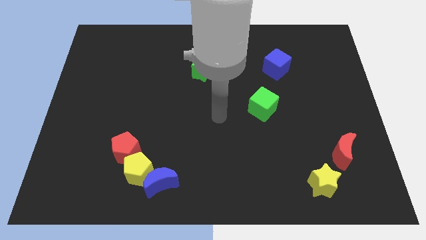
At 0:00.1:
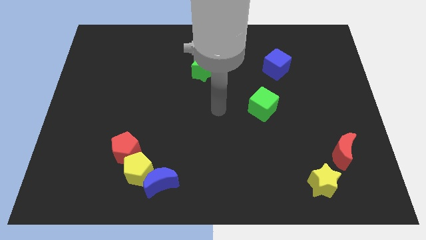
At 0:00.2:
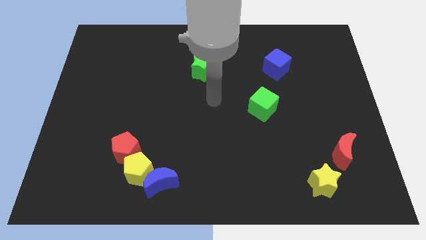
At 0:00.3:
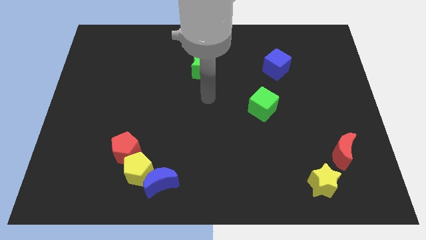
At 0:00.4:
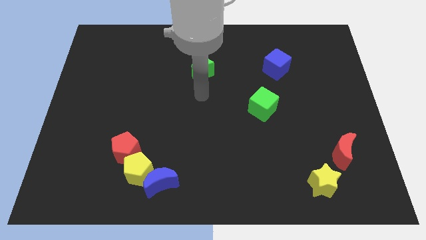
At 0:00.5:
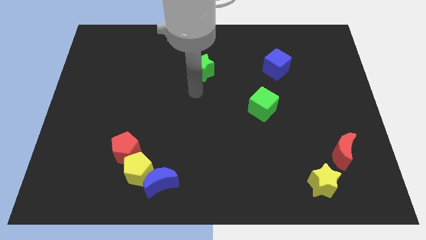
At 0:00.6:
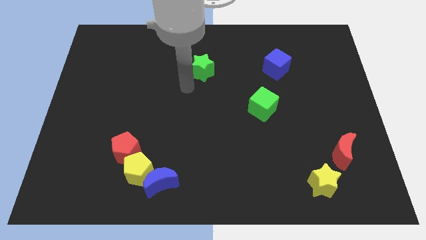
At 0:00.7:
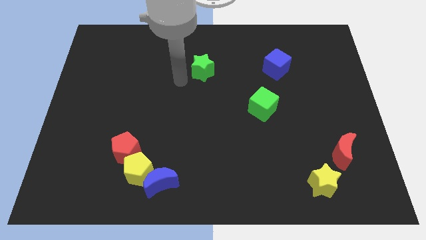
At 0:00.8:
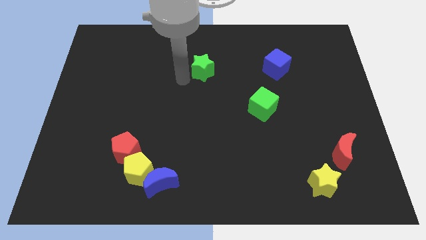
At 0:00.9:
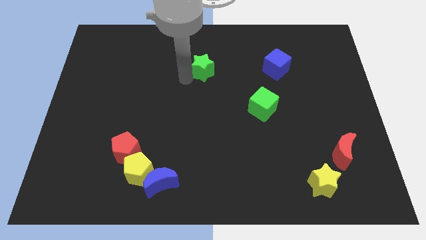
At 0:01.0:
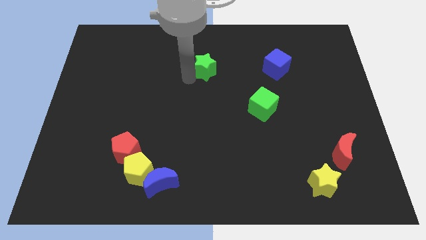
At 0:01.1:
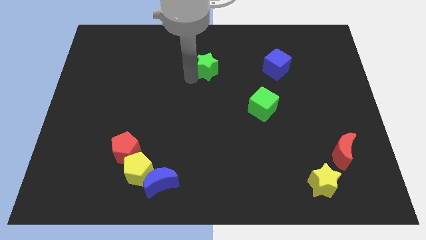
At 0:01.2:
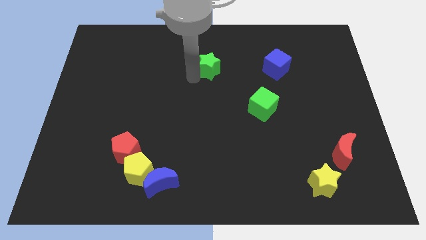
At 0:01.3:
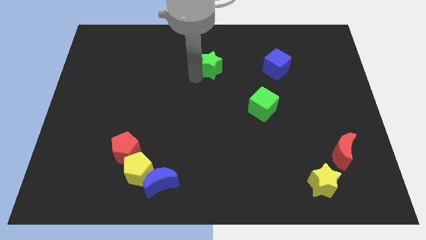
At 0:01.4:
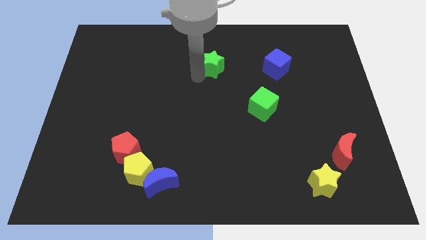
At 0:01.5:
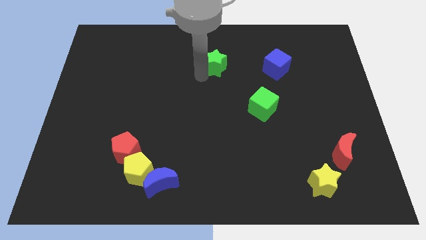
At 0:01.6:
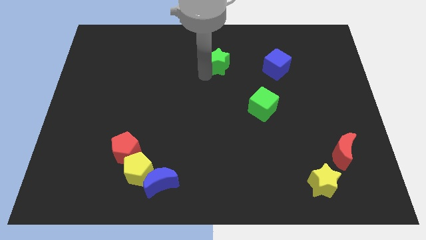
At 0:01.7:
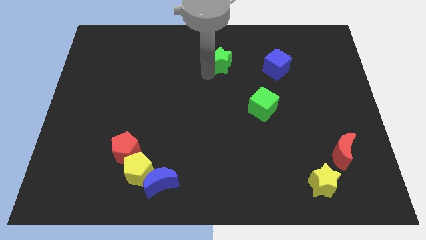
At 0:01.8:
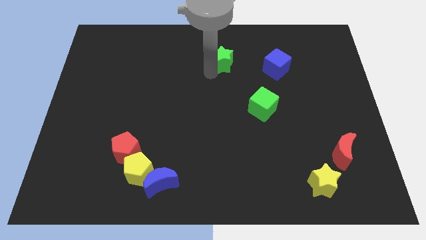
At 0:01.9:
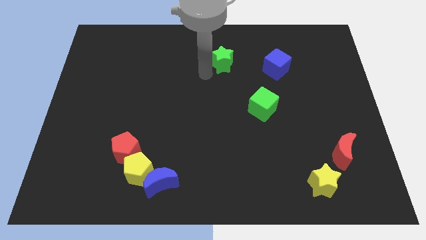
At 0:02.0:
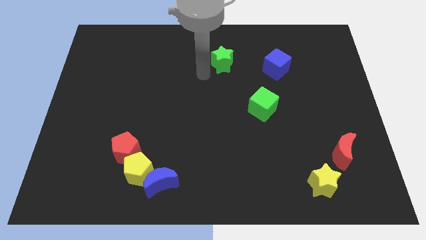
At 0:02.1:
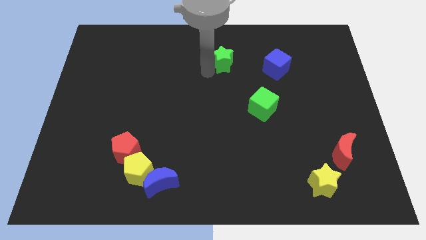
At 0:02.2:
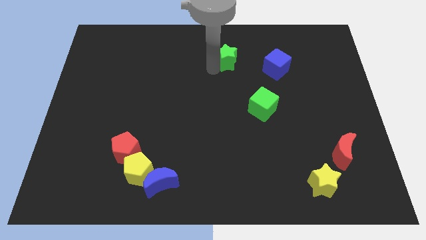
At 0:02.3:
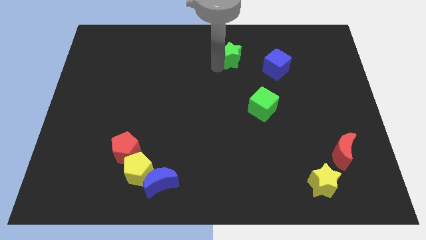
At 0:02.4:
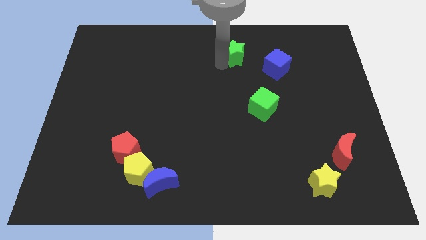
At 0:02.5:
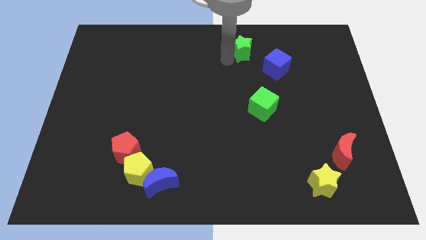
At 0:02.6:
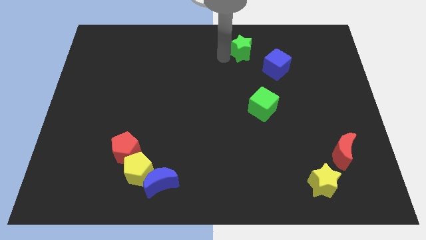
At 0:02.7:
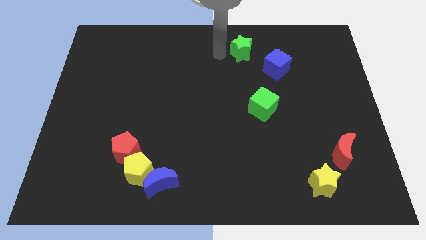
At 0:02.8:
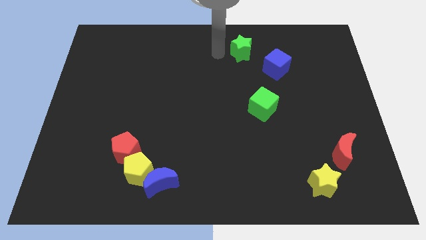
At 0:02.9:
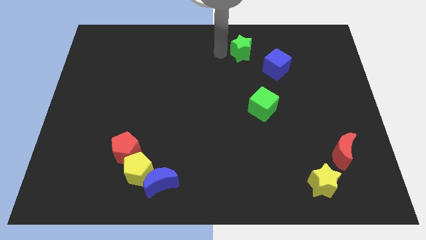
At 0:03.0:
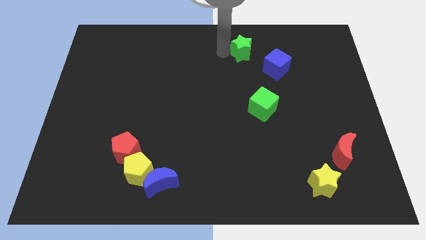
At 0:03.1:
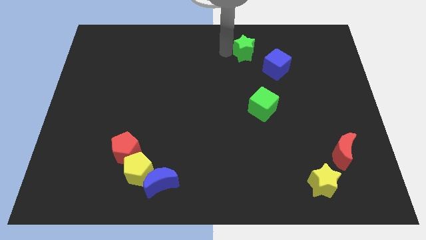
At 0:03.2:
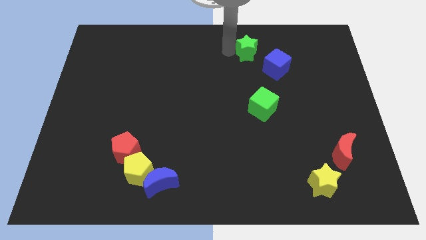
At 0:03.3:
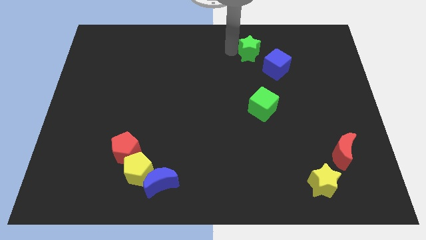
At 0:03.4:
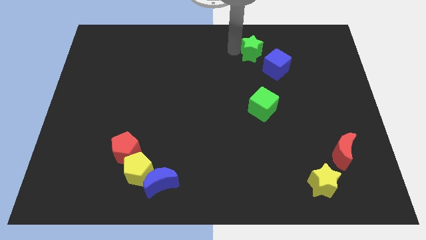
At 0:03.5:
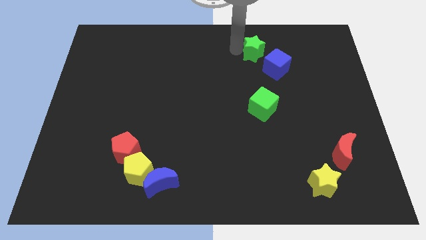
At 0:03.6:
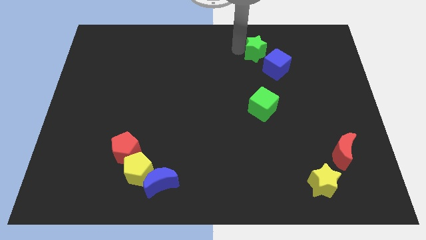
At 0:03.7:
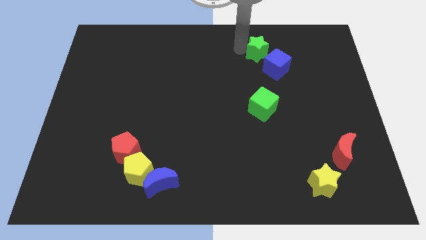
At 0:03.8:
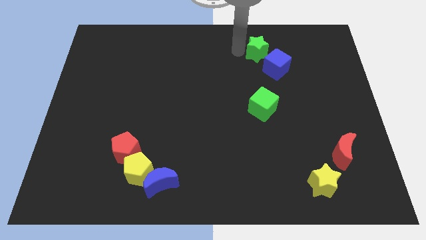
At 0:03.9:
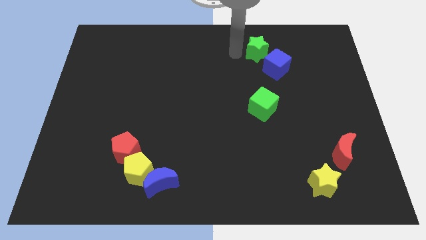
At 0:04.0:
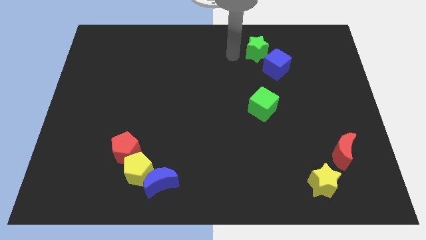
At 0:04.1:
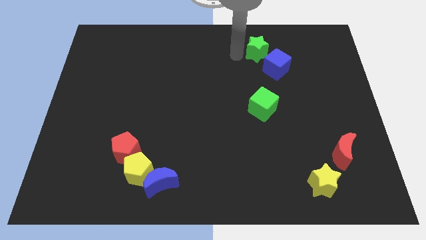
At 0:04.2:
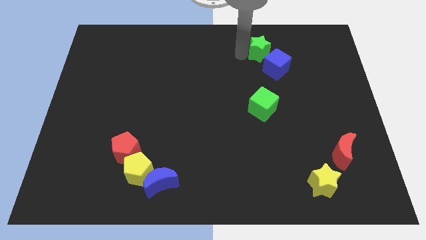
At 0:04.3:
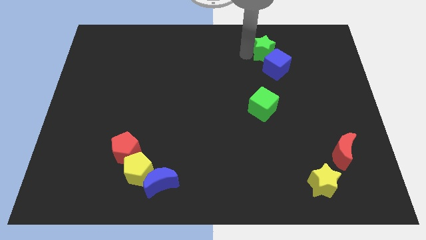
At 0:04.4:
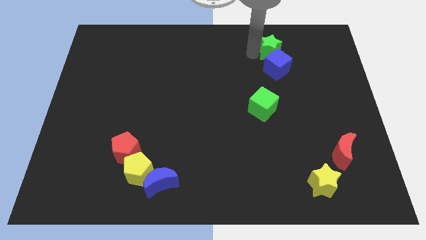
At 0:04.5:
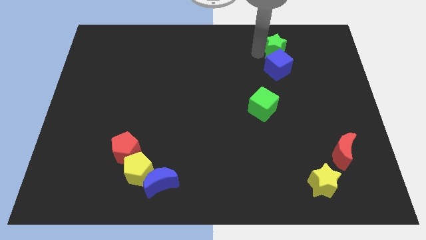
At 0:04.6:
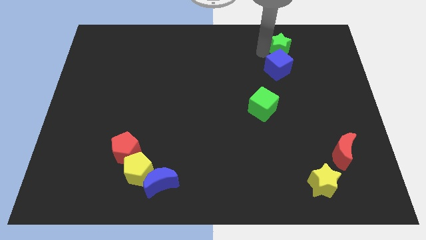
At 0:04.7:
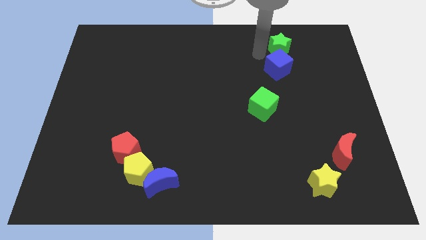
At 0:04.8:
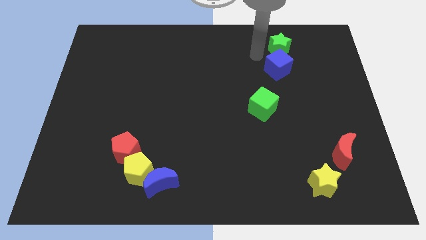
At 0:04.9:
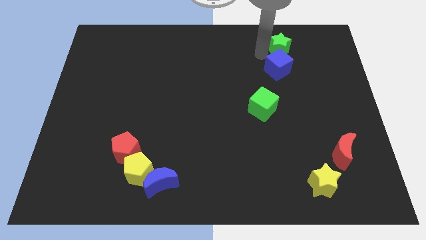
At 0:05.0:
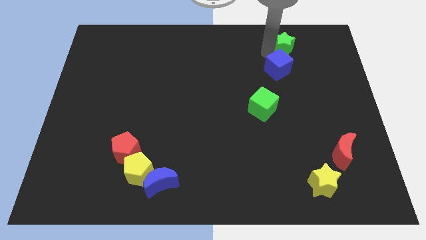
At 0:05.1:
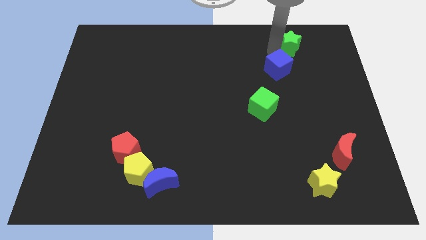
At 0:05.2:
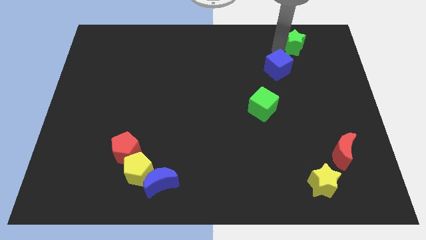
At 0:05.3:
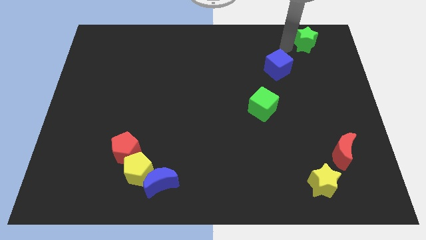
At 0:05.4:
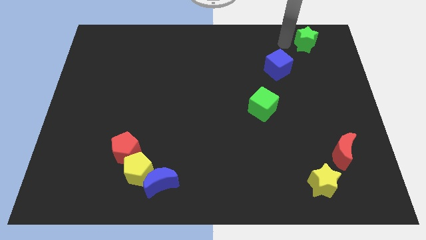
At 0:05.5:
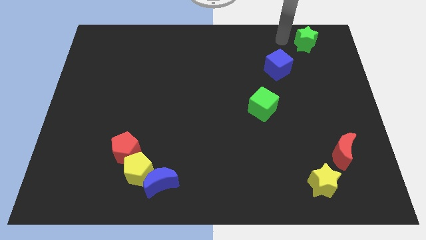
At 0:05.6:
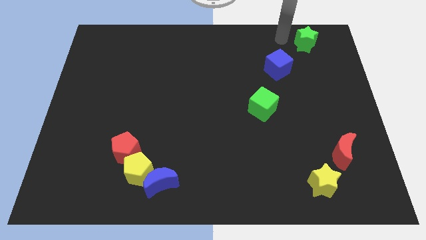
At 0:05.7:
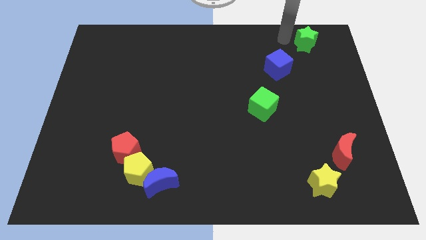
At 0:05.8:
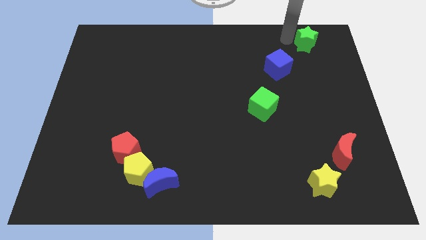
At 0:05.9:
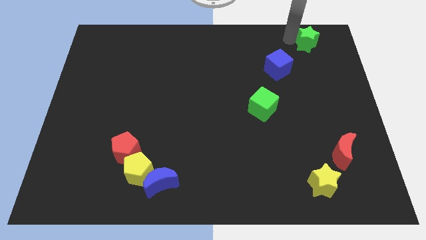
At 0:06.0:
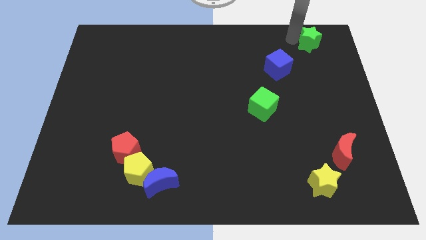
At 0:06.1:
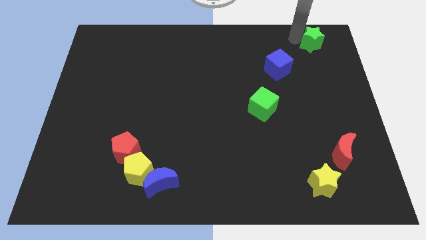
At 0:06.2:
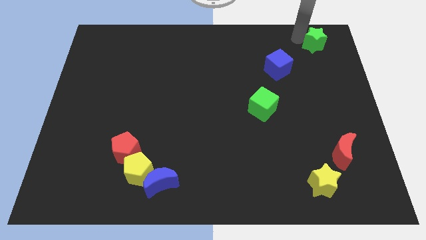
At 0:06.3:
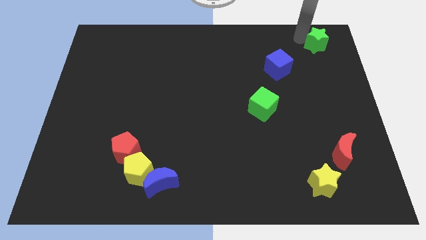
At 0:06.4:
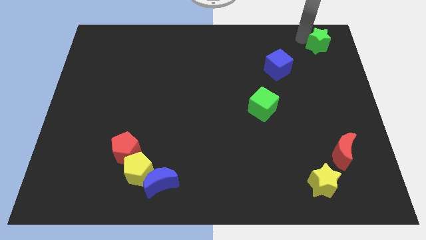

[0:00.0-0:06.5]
slide the green star to the top right
